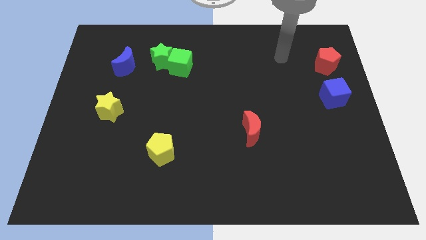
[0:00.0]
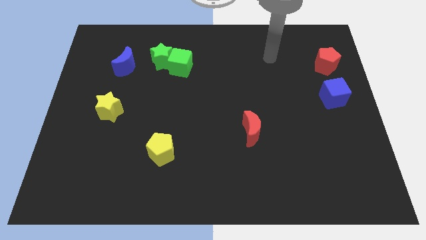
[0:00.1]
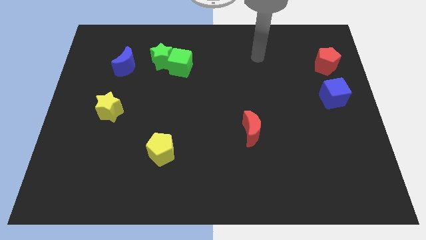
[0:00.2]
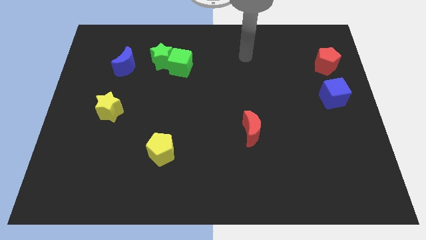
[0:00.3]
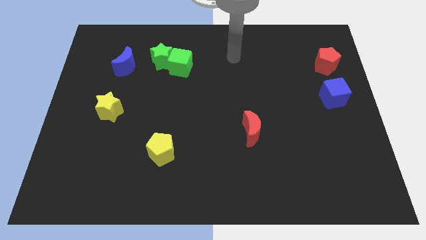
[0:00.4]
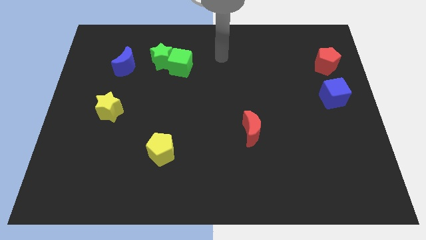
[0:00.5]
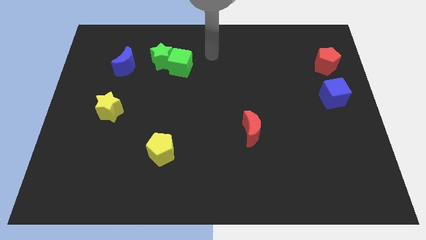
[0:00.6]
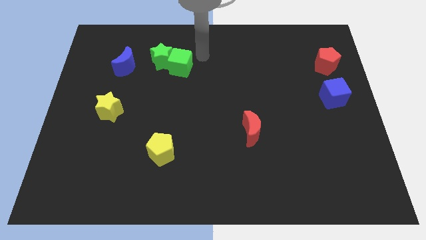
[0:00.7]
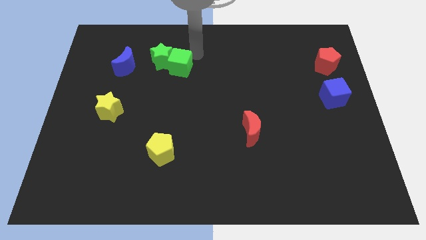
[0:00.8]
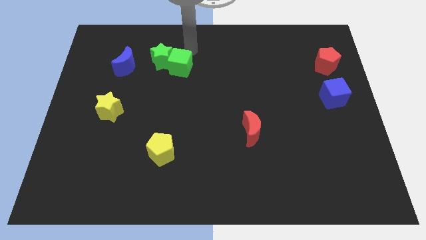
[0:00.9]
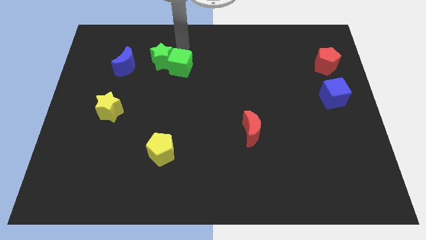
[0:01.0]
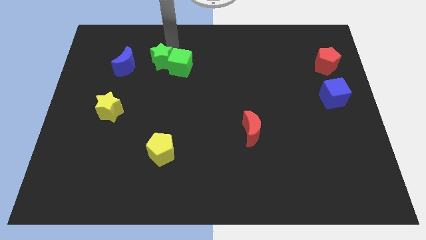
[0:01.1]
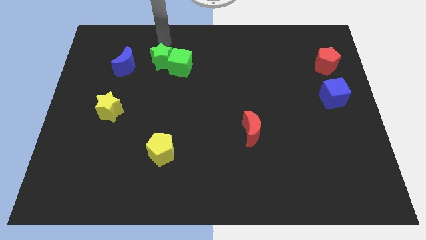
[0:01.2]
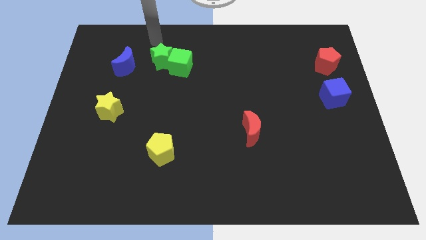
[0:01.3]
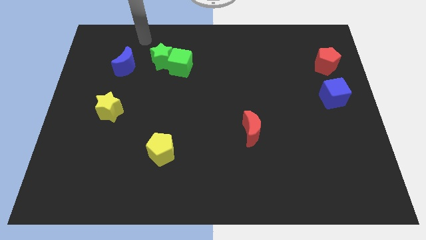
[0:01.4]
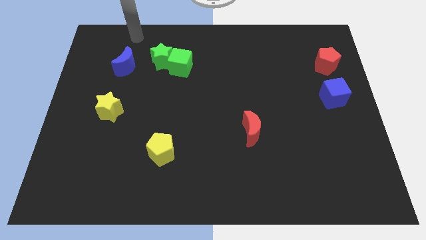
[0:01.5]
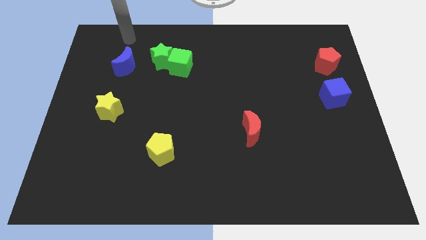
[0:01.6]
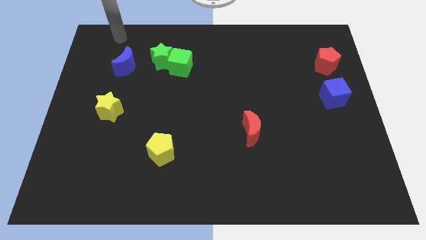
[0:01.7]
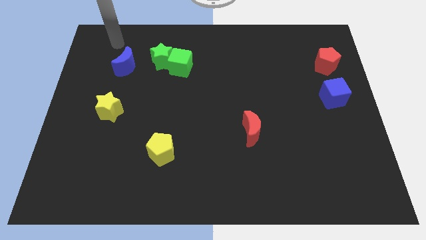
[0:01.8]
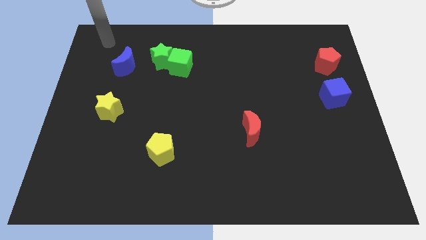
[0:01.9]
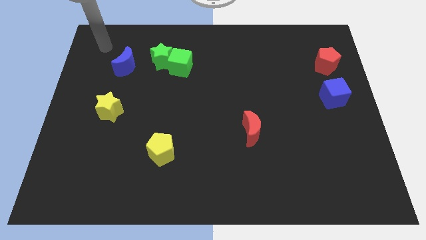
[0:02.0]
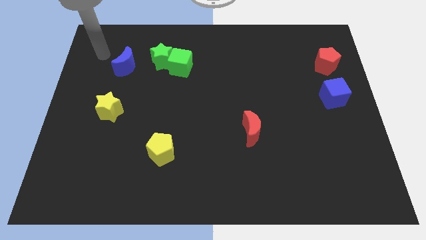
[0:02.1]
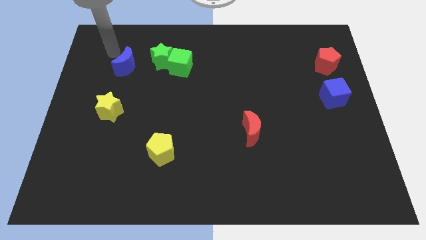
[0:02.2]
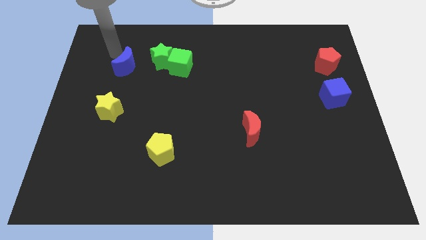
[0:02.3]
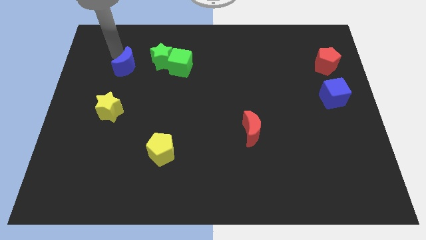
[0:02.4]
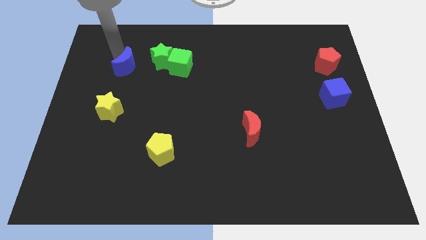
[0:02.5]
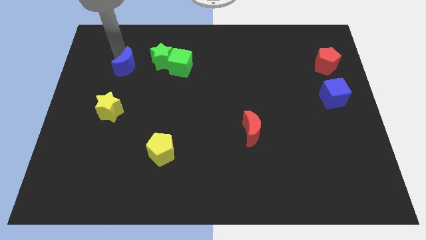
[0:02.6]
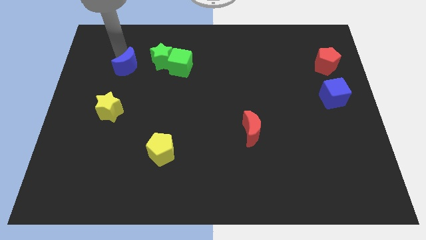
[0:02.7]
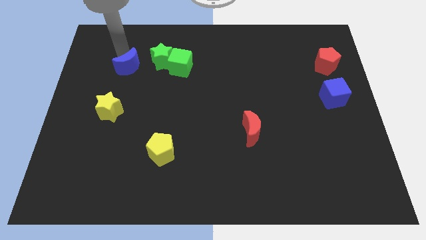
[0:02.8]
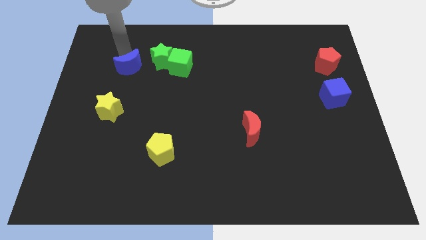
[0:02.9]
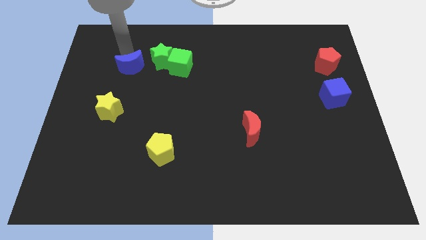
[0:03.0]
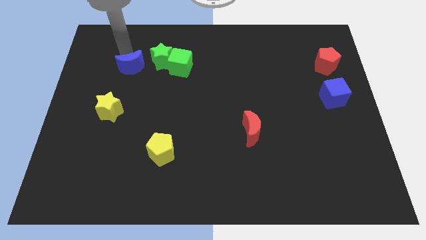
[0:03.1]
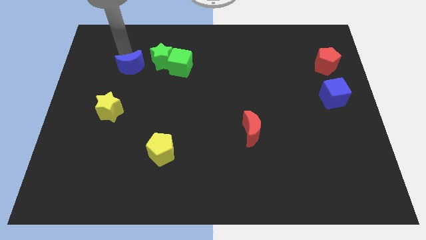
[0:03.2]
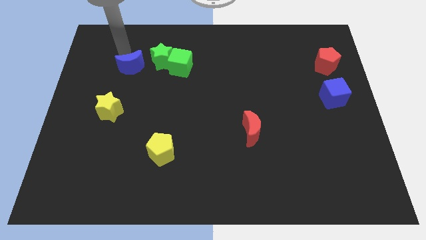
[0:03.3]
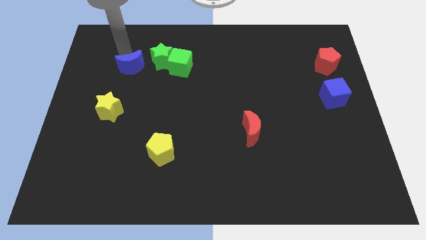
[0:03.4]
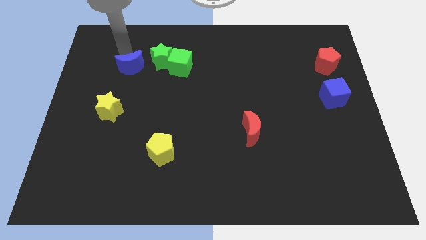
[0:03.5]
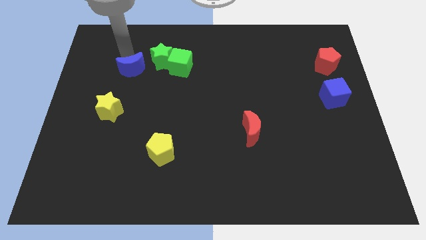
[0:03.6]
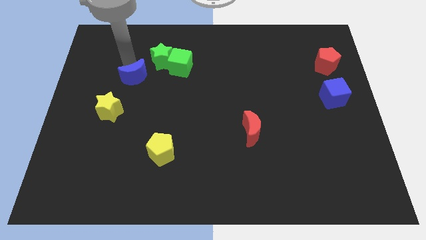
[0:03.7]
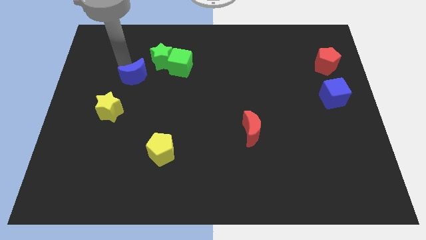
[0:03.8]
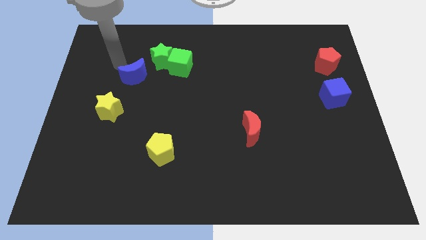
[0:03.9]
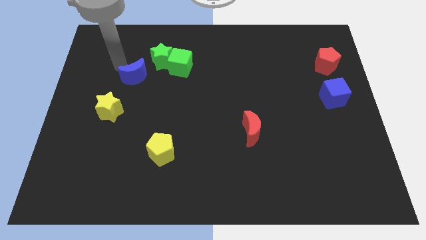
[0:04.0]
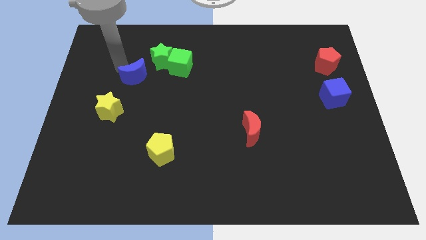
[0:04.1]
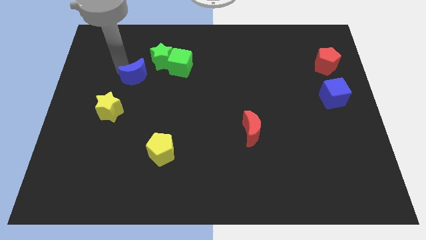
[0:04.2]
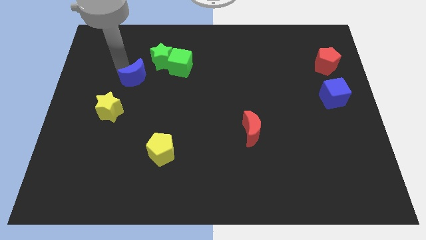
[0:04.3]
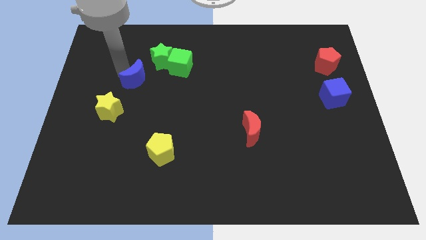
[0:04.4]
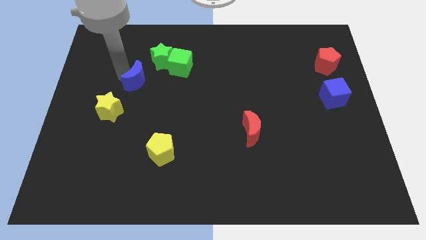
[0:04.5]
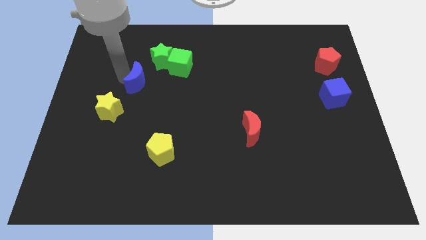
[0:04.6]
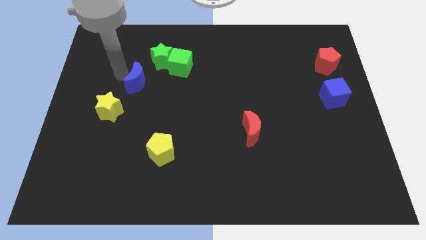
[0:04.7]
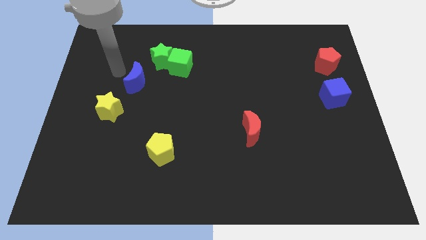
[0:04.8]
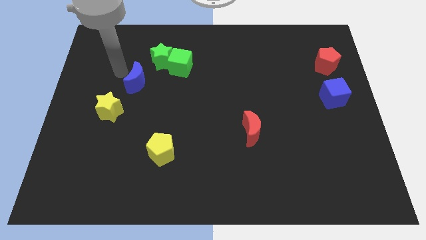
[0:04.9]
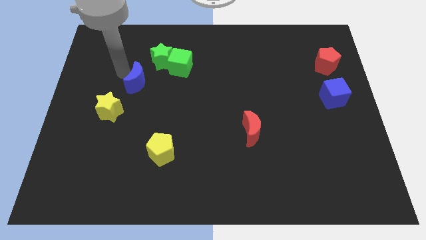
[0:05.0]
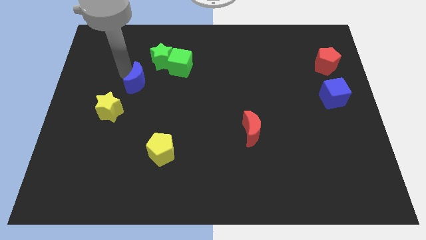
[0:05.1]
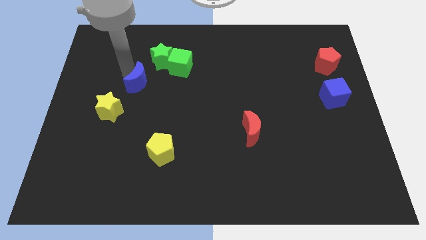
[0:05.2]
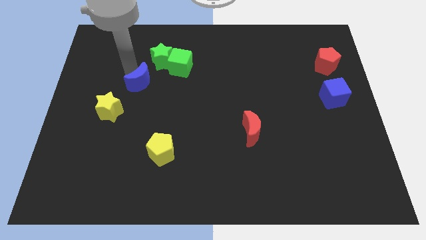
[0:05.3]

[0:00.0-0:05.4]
move the blue moon a little bit downwards and to the right

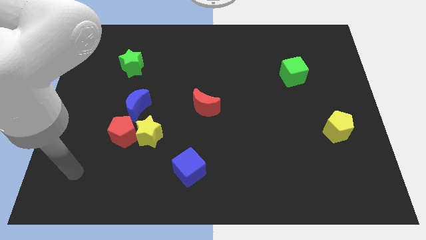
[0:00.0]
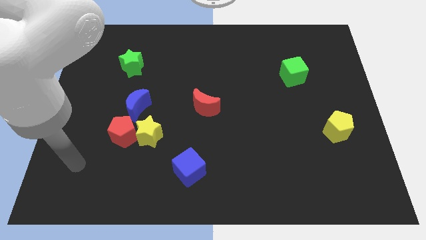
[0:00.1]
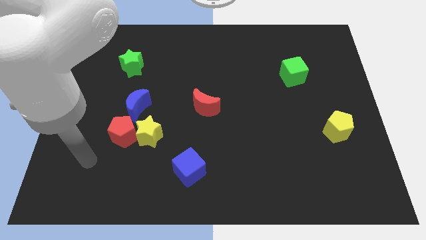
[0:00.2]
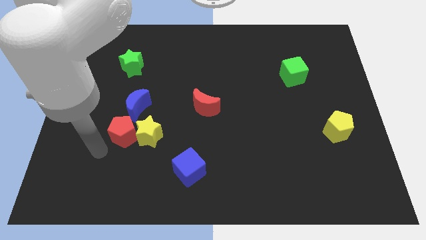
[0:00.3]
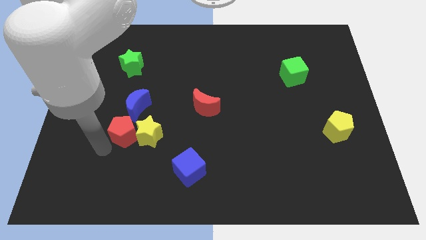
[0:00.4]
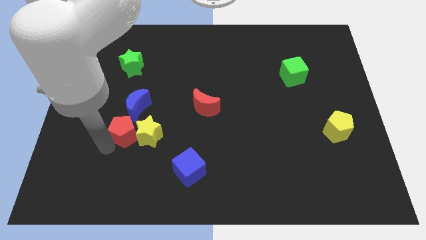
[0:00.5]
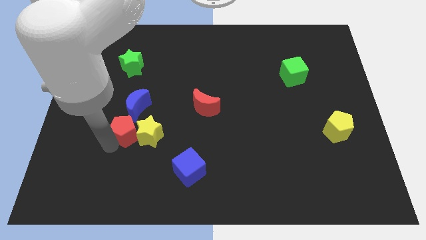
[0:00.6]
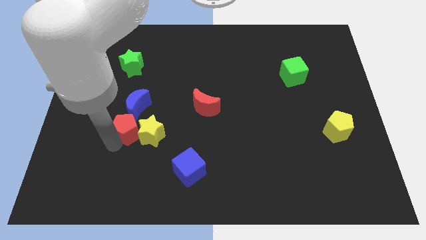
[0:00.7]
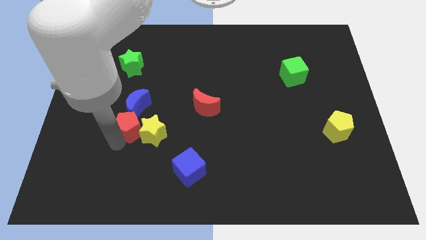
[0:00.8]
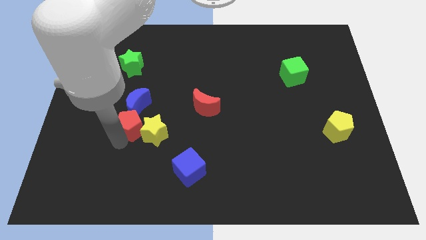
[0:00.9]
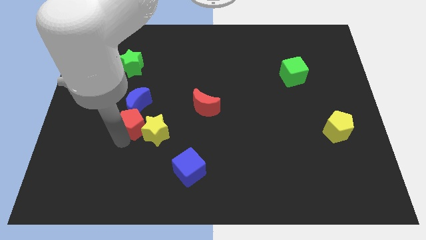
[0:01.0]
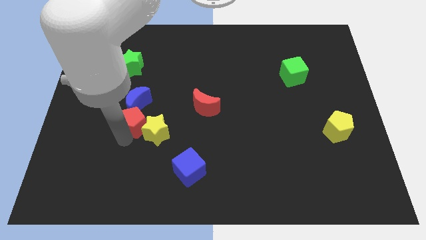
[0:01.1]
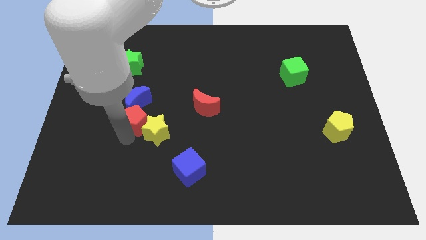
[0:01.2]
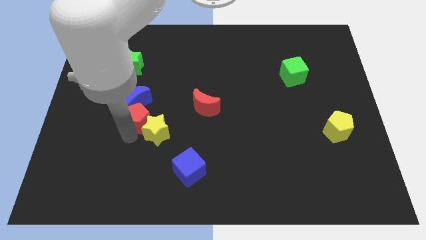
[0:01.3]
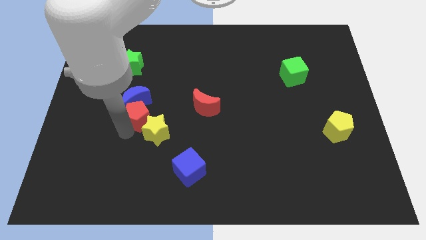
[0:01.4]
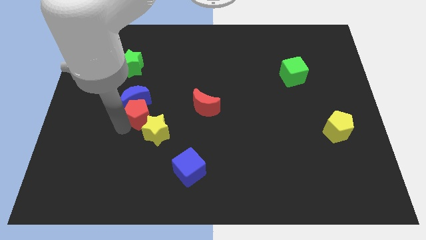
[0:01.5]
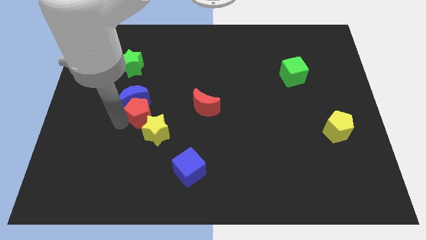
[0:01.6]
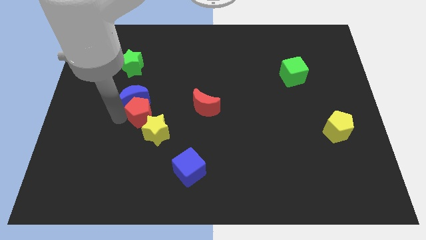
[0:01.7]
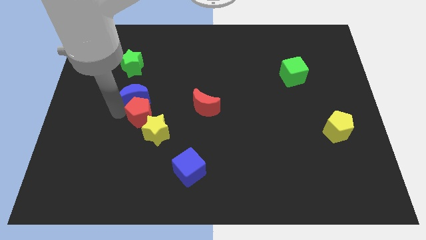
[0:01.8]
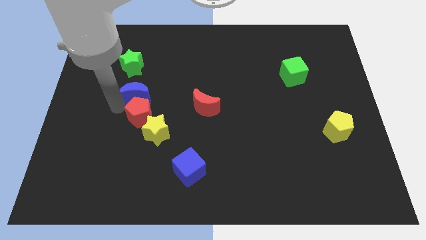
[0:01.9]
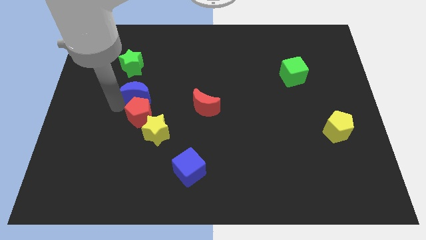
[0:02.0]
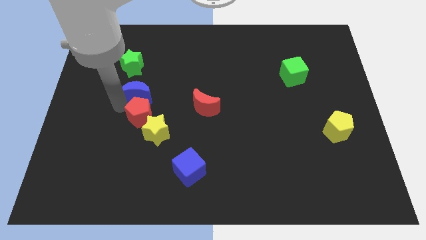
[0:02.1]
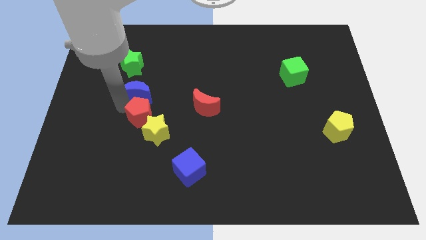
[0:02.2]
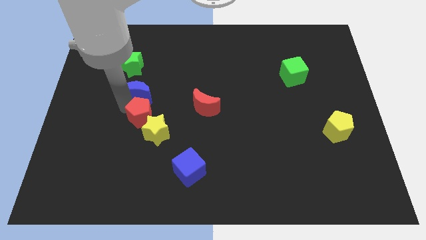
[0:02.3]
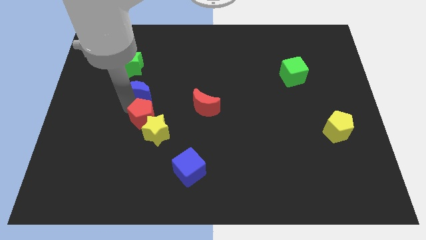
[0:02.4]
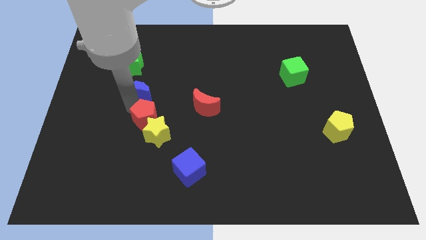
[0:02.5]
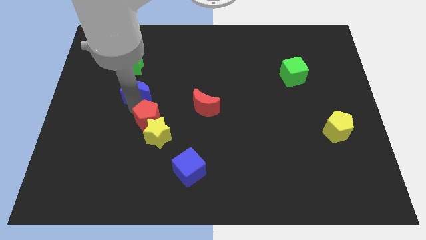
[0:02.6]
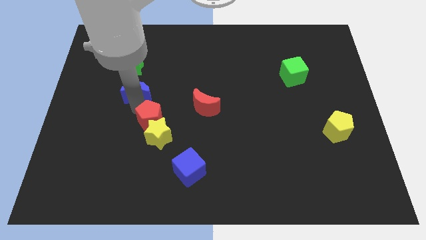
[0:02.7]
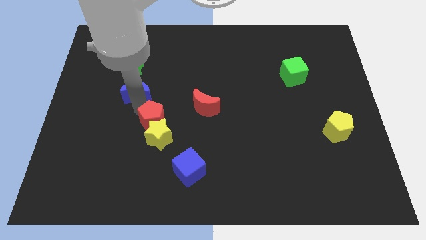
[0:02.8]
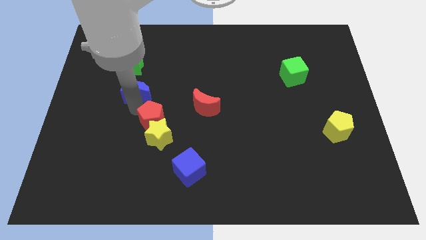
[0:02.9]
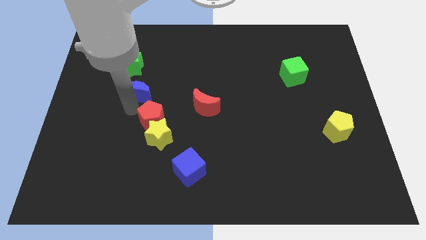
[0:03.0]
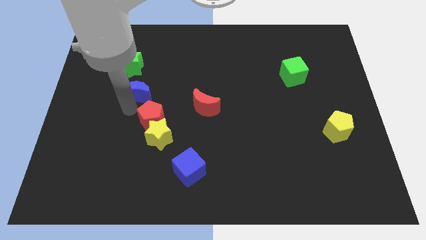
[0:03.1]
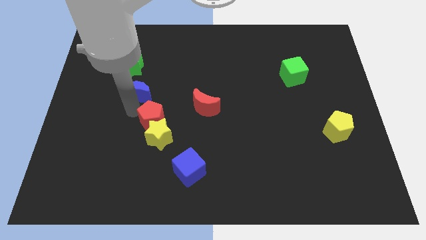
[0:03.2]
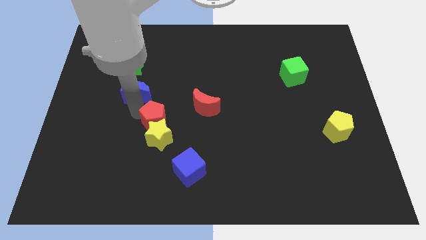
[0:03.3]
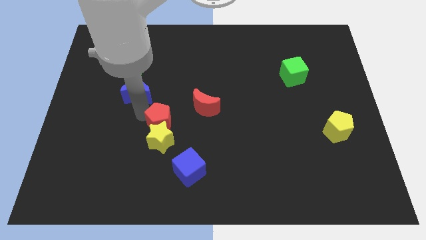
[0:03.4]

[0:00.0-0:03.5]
move the red pentagon a bit to the right
